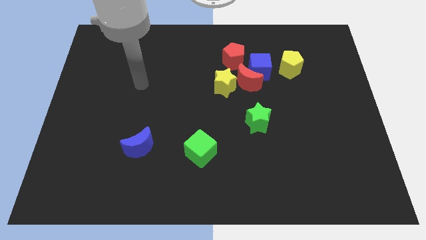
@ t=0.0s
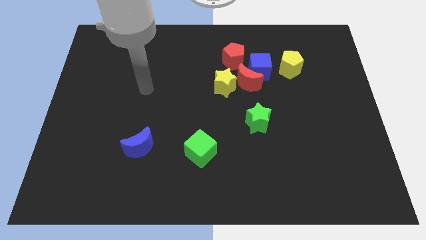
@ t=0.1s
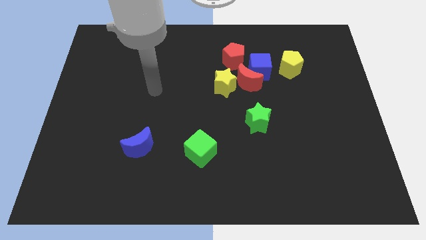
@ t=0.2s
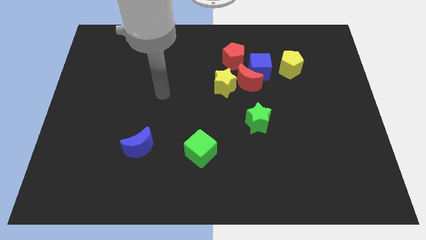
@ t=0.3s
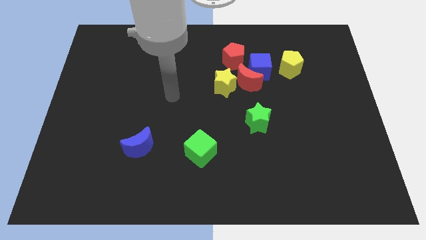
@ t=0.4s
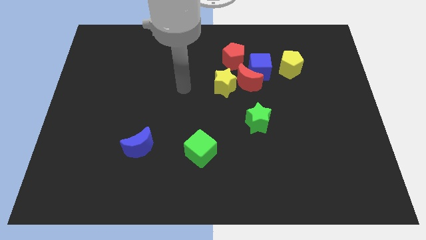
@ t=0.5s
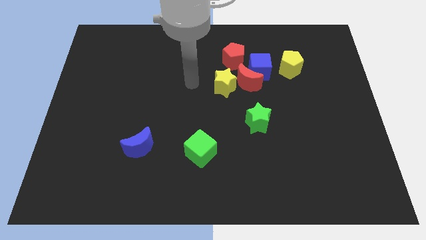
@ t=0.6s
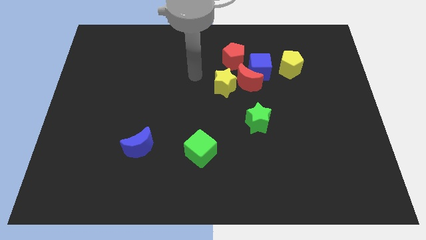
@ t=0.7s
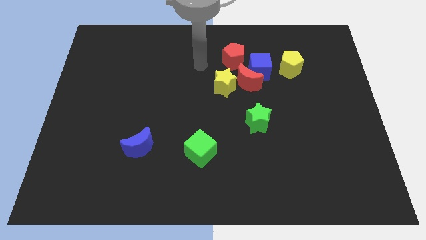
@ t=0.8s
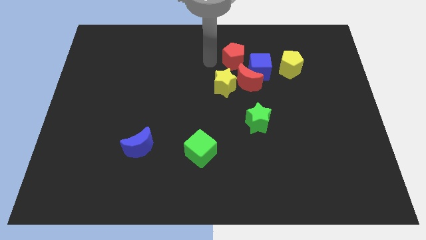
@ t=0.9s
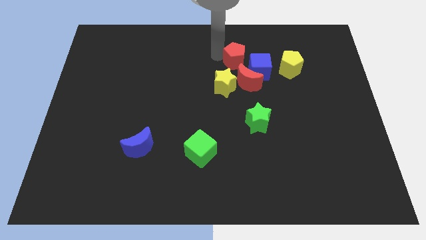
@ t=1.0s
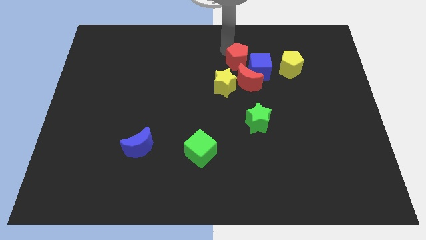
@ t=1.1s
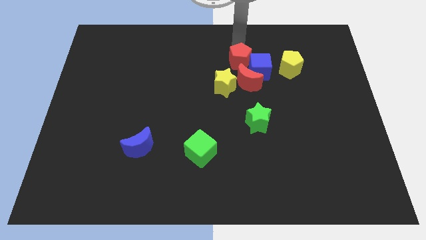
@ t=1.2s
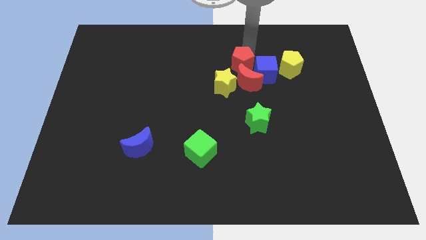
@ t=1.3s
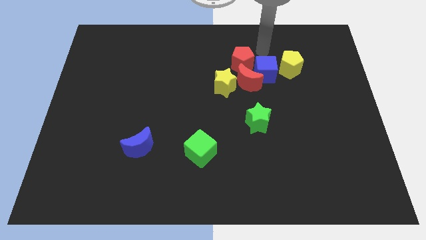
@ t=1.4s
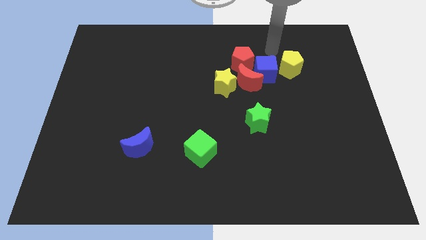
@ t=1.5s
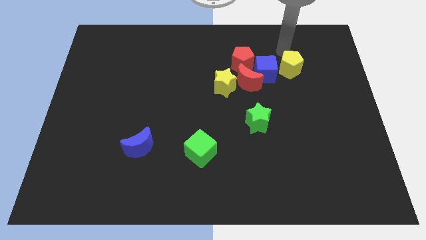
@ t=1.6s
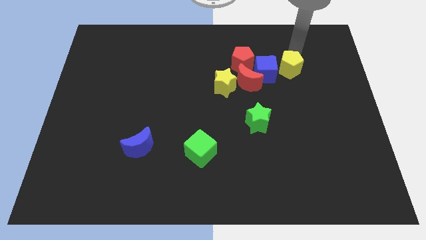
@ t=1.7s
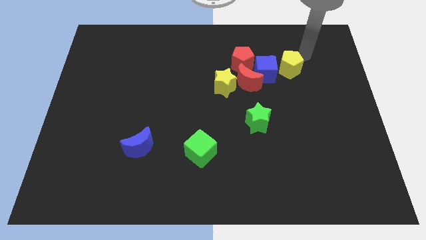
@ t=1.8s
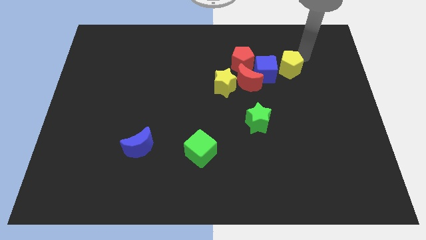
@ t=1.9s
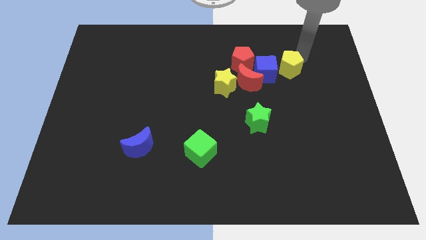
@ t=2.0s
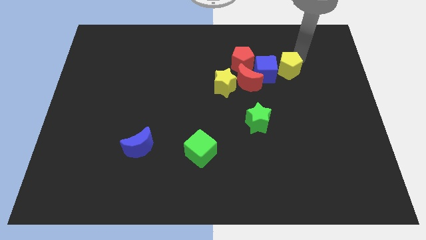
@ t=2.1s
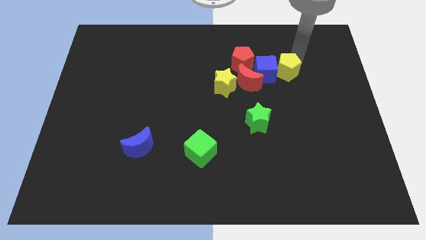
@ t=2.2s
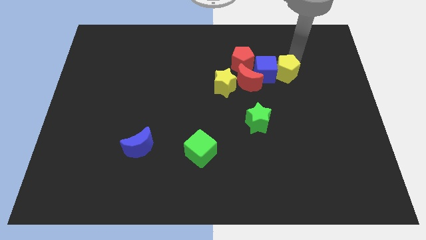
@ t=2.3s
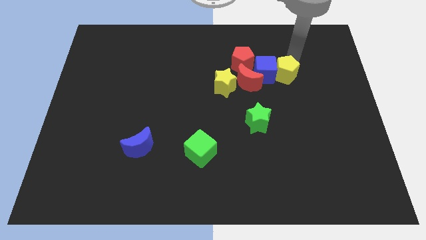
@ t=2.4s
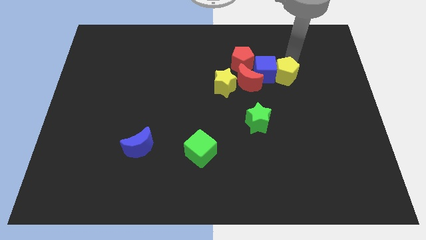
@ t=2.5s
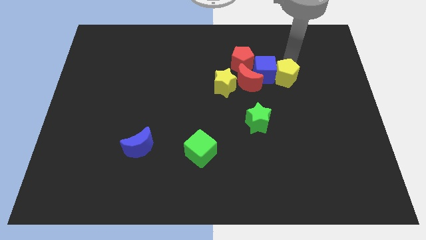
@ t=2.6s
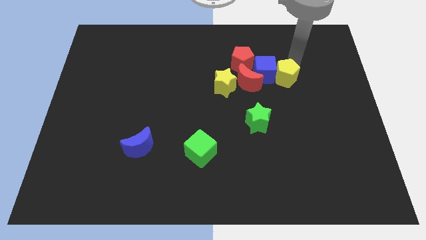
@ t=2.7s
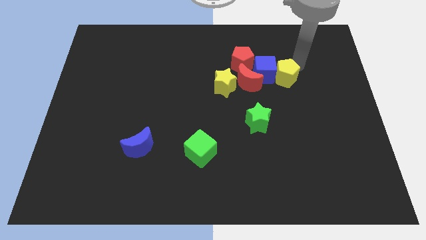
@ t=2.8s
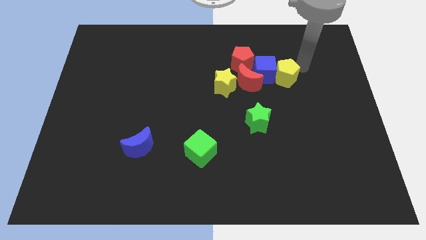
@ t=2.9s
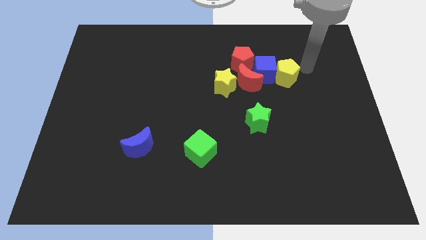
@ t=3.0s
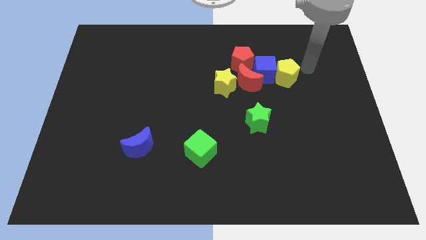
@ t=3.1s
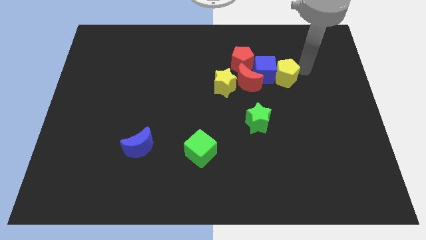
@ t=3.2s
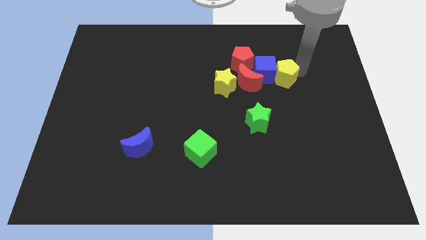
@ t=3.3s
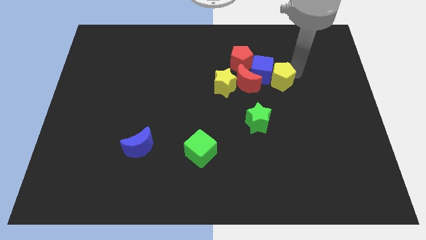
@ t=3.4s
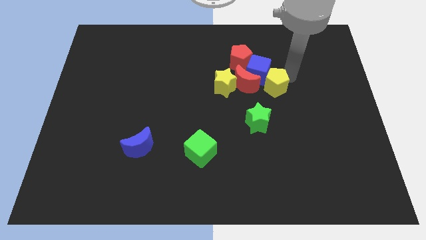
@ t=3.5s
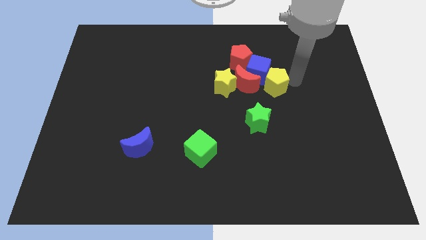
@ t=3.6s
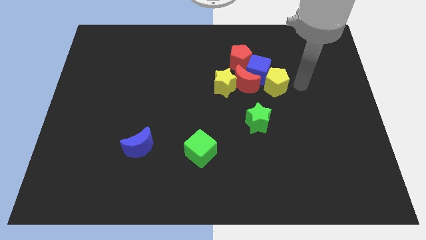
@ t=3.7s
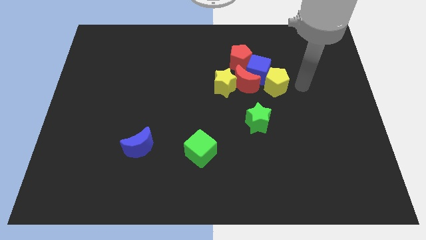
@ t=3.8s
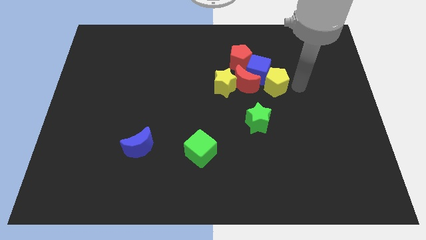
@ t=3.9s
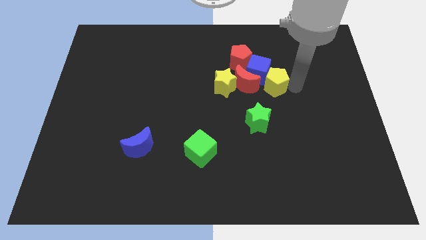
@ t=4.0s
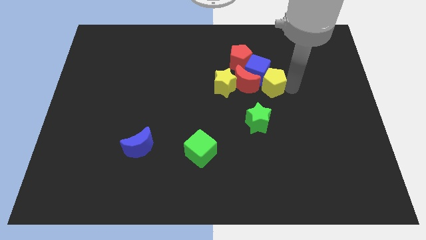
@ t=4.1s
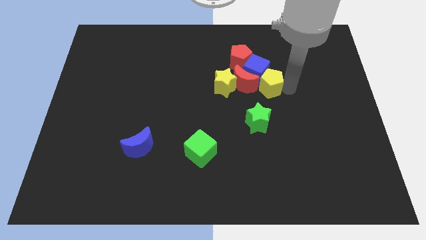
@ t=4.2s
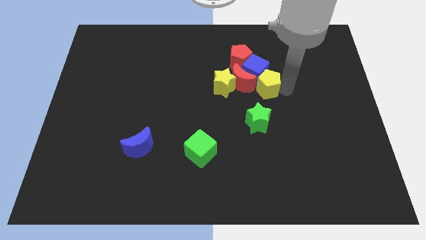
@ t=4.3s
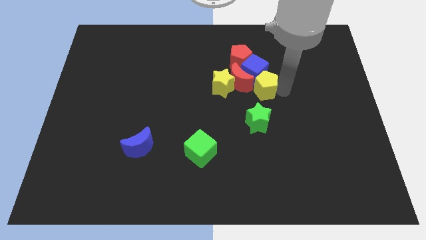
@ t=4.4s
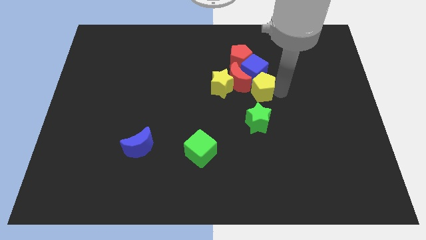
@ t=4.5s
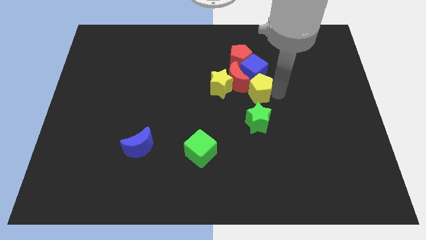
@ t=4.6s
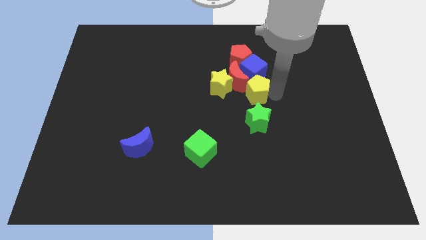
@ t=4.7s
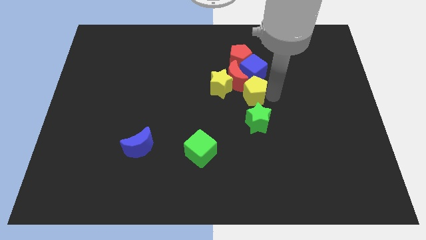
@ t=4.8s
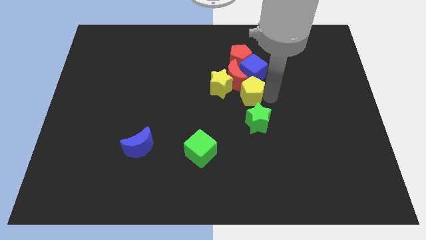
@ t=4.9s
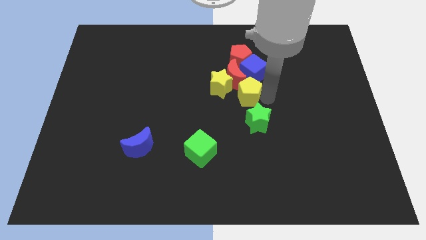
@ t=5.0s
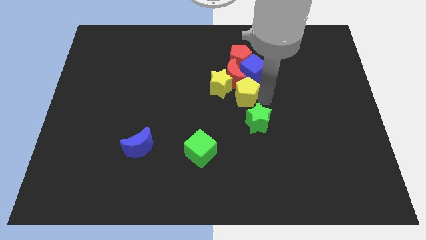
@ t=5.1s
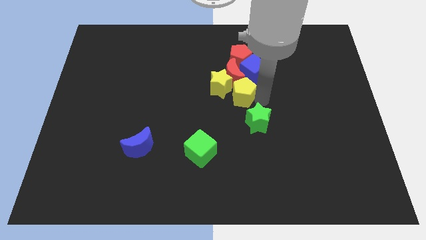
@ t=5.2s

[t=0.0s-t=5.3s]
push the yellow pentagon to the red moon

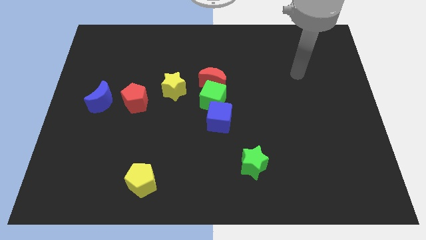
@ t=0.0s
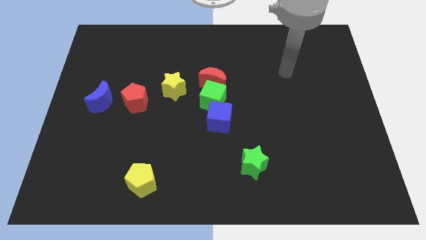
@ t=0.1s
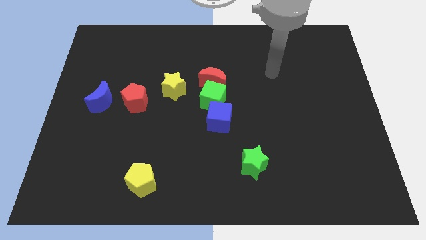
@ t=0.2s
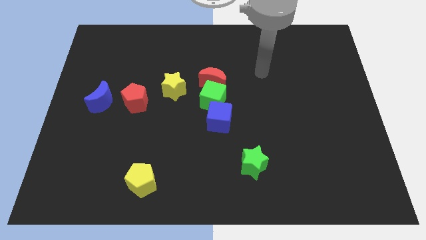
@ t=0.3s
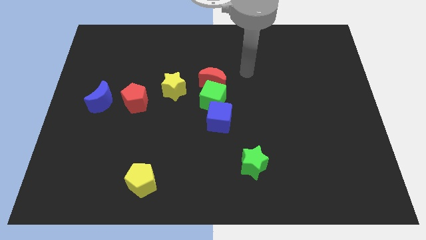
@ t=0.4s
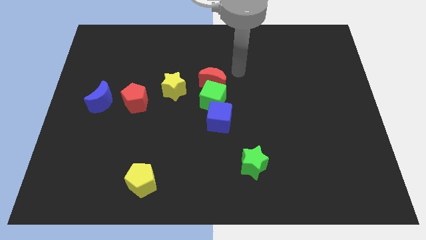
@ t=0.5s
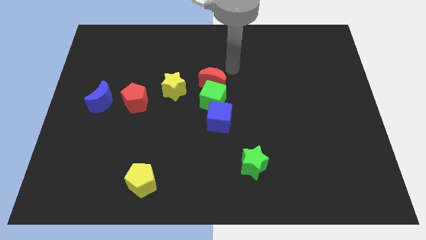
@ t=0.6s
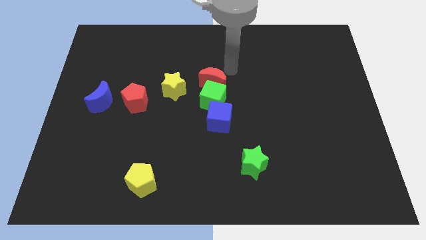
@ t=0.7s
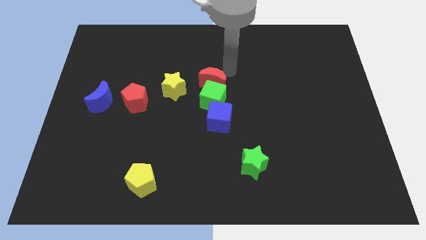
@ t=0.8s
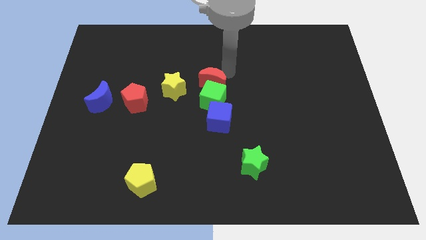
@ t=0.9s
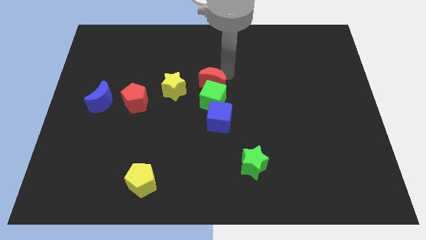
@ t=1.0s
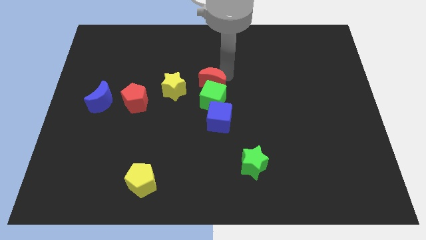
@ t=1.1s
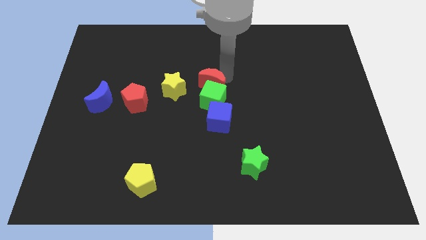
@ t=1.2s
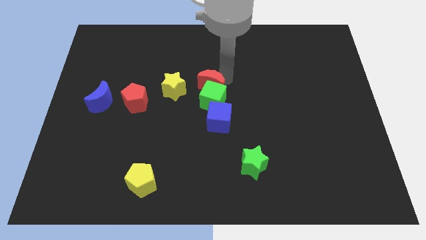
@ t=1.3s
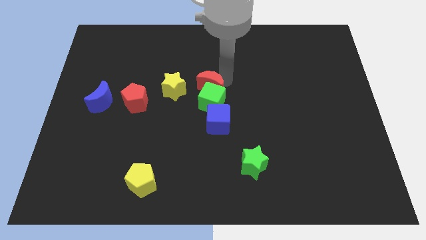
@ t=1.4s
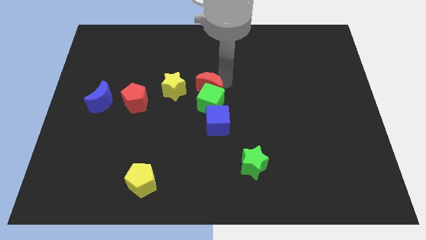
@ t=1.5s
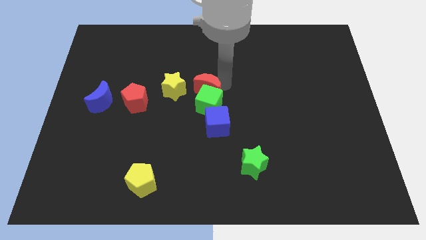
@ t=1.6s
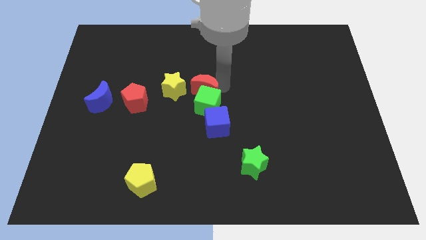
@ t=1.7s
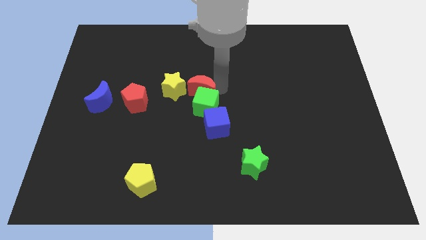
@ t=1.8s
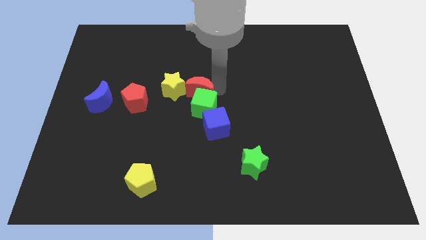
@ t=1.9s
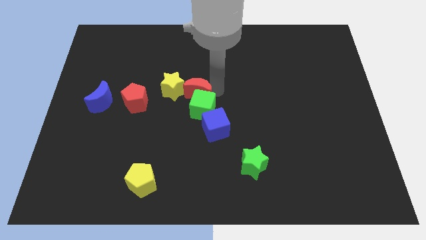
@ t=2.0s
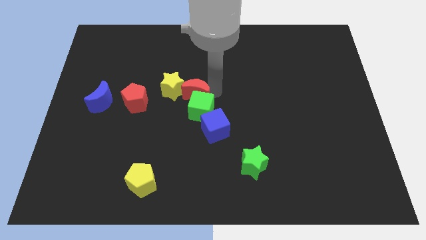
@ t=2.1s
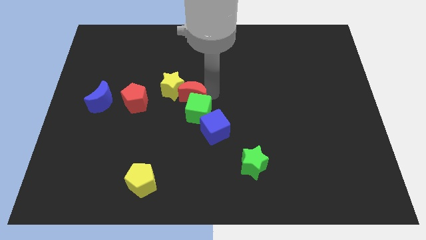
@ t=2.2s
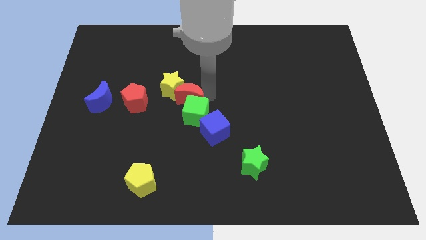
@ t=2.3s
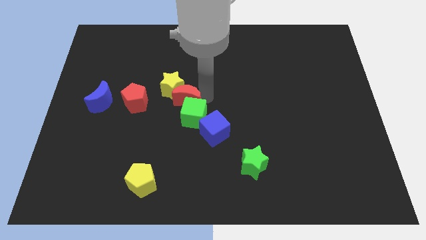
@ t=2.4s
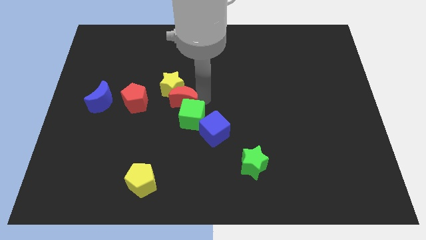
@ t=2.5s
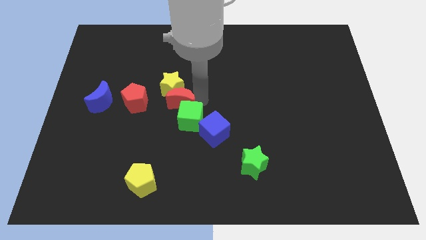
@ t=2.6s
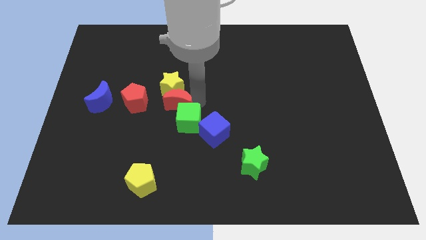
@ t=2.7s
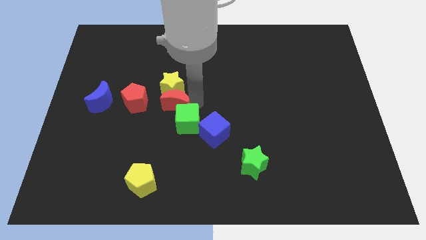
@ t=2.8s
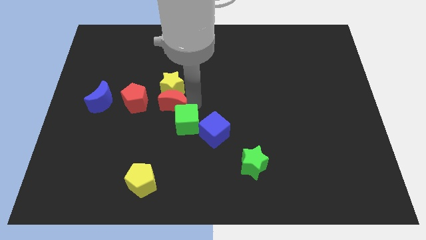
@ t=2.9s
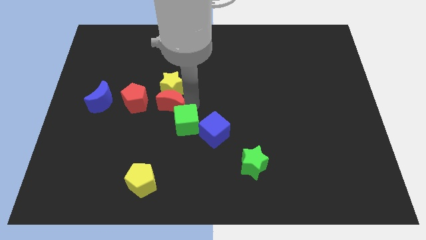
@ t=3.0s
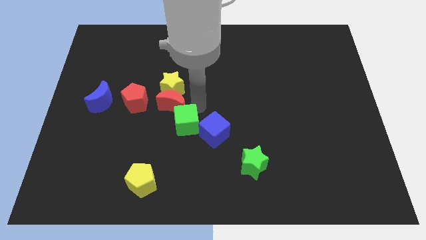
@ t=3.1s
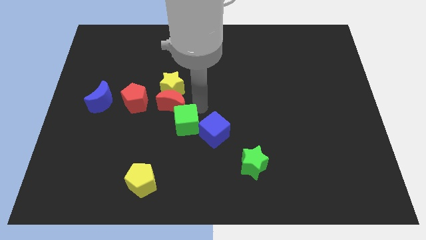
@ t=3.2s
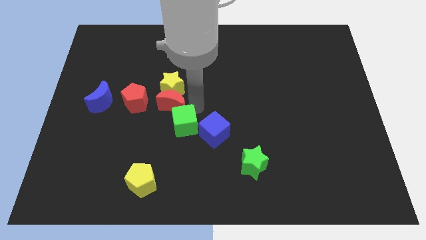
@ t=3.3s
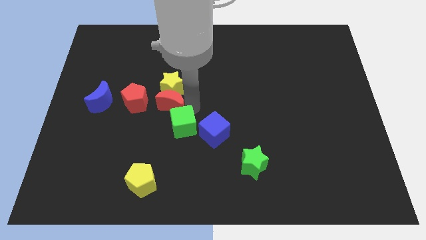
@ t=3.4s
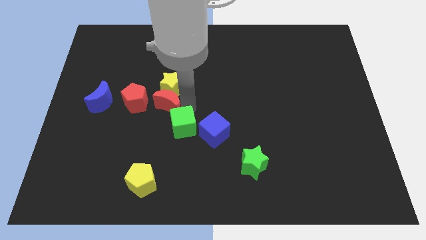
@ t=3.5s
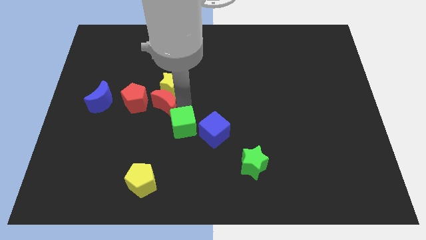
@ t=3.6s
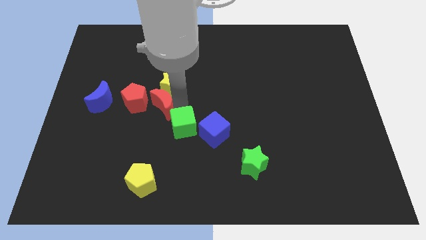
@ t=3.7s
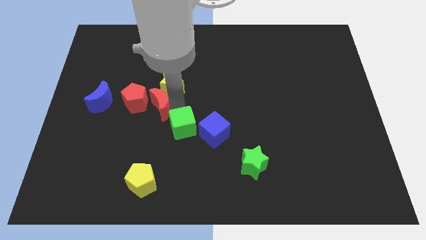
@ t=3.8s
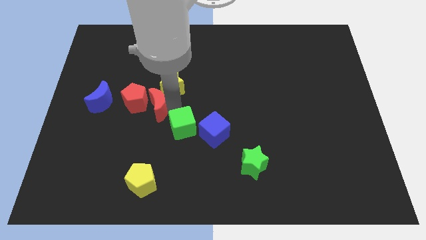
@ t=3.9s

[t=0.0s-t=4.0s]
put the red moon next to the red pentagon
